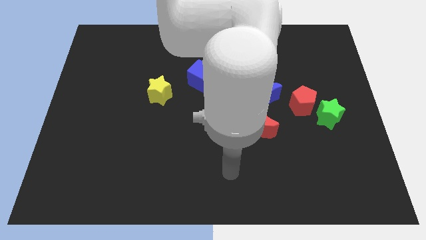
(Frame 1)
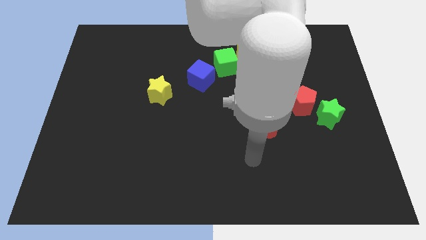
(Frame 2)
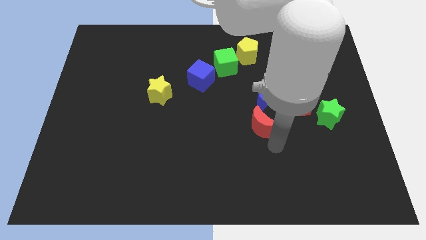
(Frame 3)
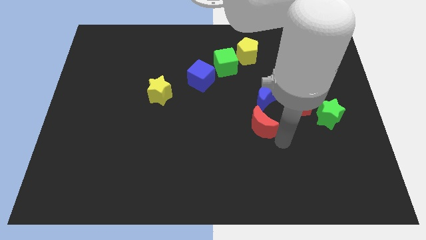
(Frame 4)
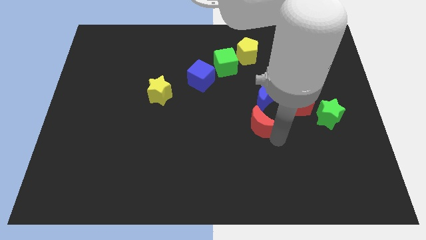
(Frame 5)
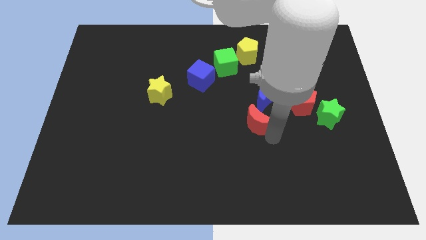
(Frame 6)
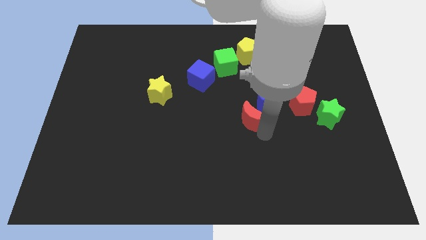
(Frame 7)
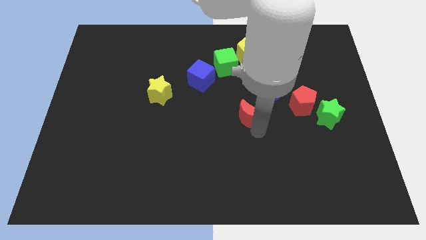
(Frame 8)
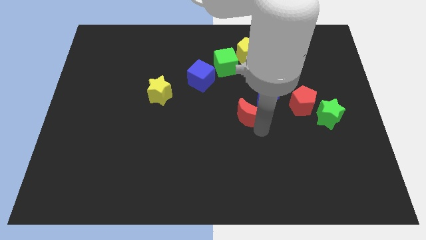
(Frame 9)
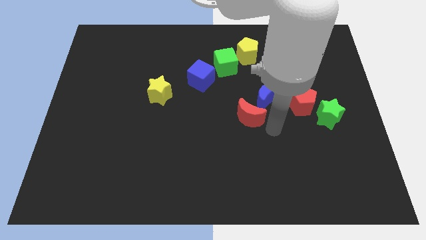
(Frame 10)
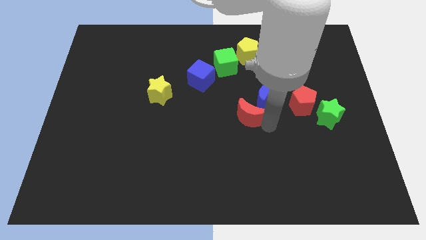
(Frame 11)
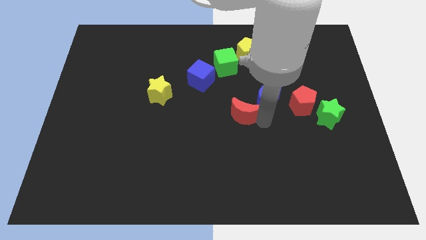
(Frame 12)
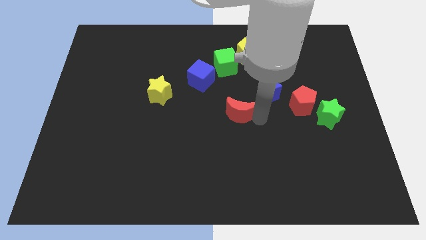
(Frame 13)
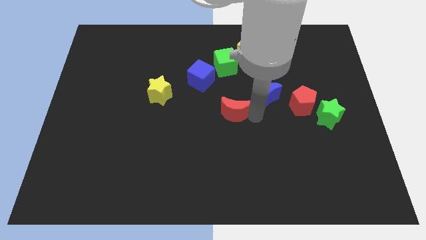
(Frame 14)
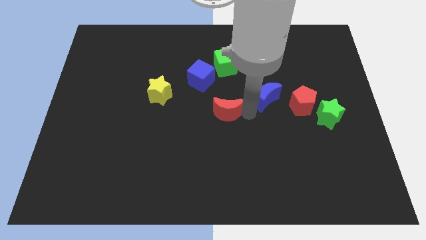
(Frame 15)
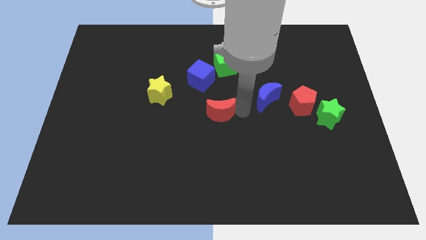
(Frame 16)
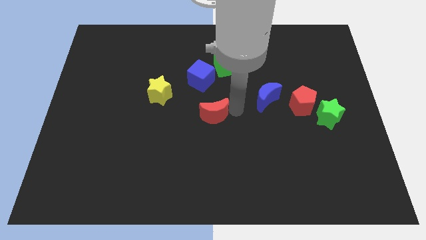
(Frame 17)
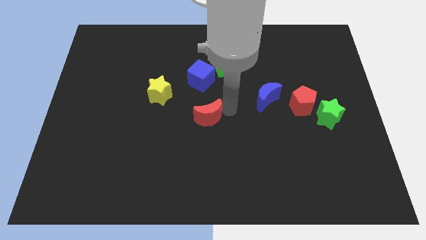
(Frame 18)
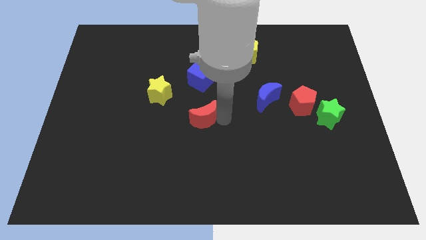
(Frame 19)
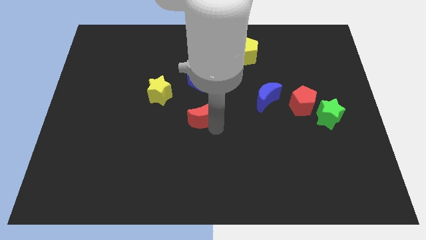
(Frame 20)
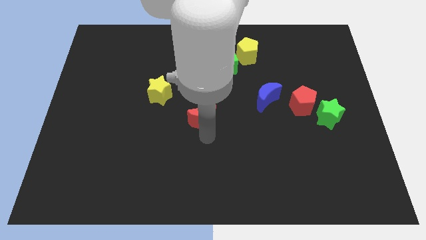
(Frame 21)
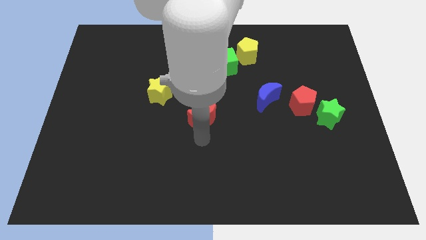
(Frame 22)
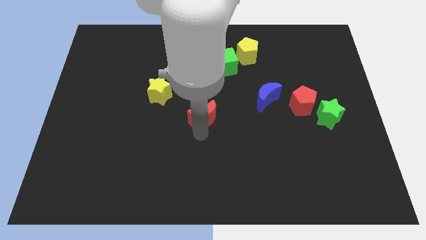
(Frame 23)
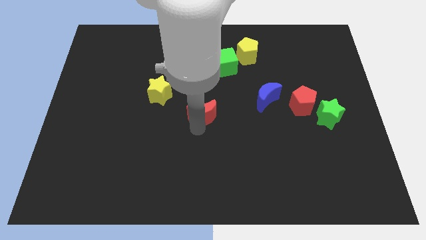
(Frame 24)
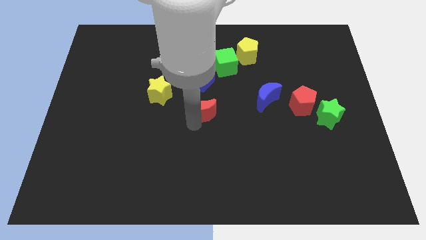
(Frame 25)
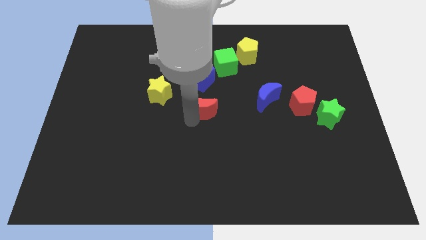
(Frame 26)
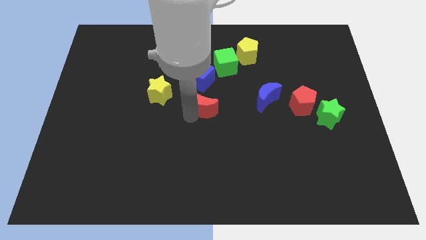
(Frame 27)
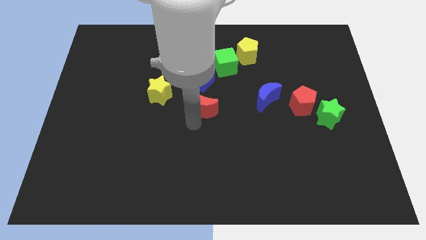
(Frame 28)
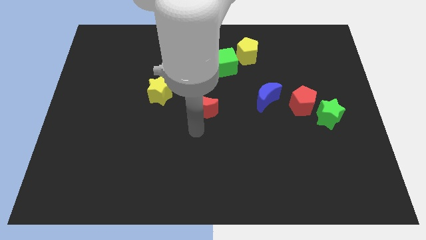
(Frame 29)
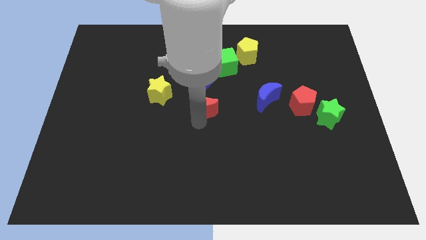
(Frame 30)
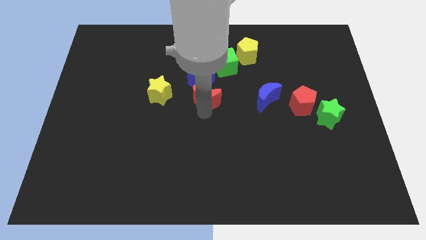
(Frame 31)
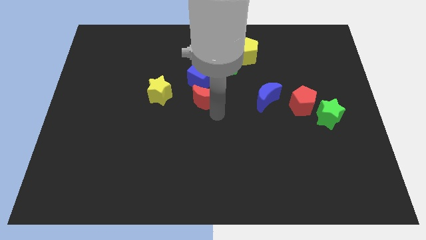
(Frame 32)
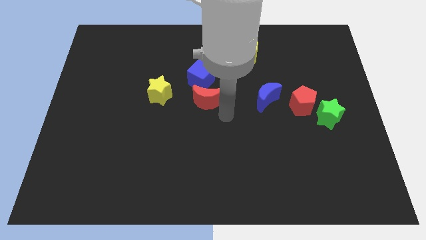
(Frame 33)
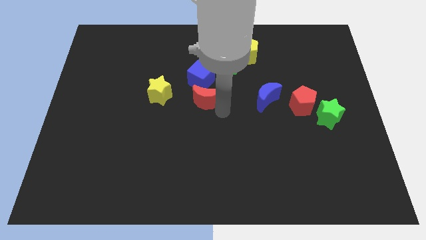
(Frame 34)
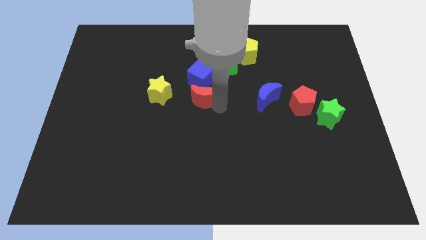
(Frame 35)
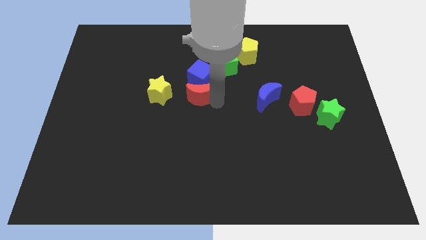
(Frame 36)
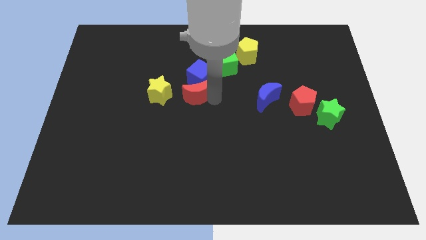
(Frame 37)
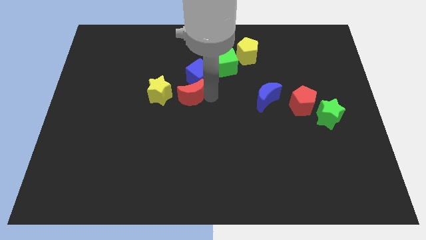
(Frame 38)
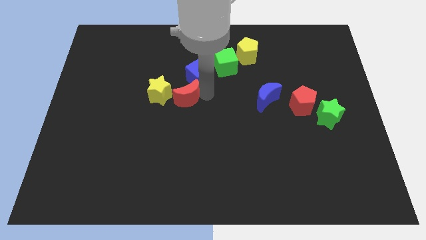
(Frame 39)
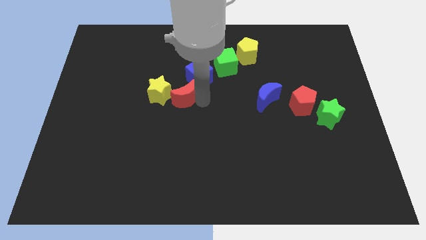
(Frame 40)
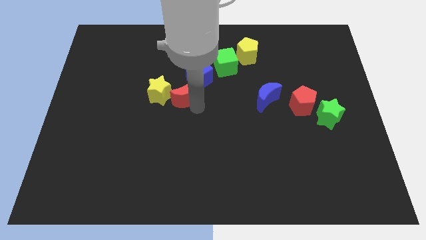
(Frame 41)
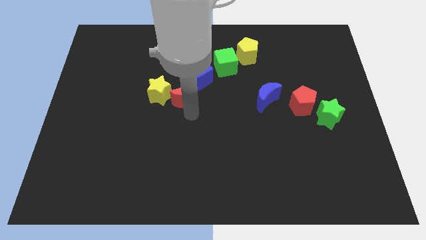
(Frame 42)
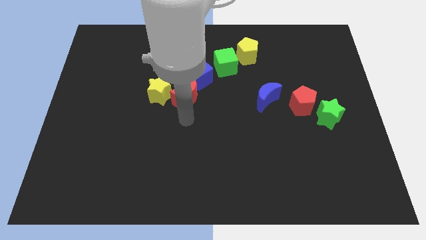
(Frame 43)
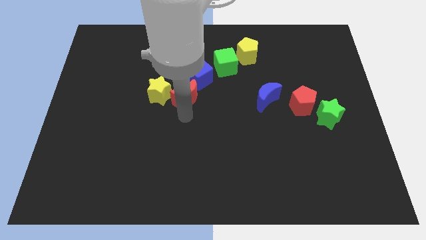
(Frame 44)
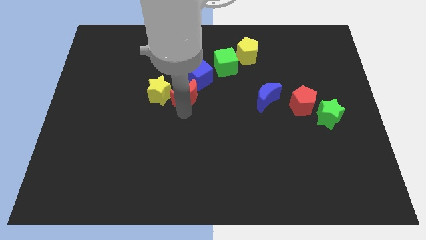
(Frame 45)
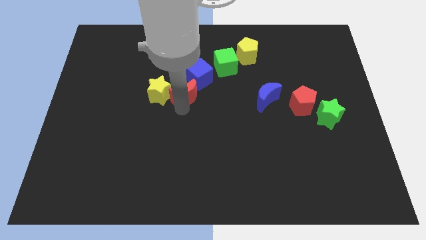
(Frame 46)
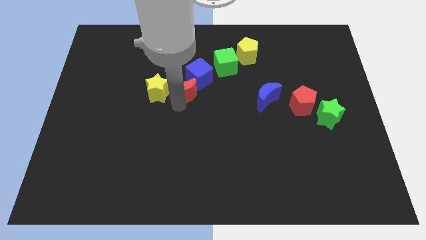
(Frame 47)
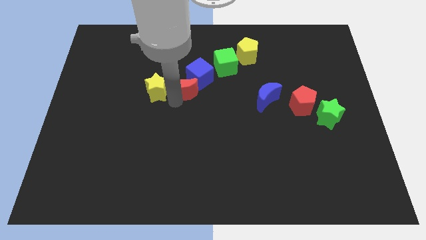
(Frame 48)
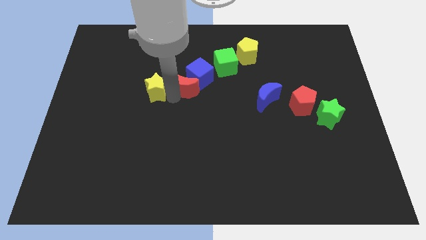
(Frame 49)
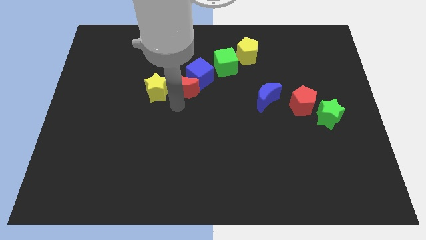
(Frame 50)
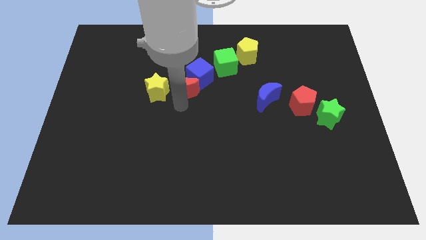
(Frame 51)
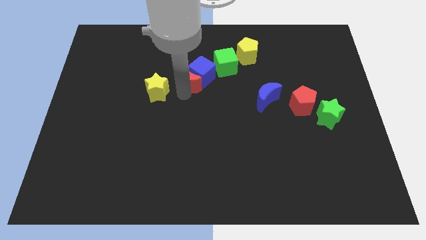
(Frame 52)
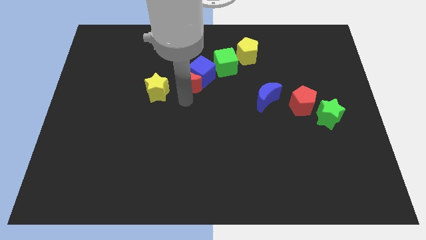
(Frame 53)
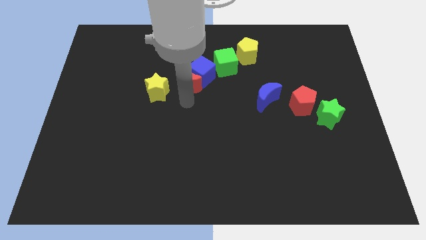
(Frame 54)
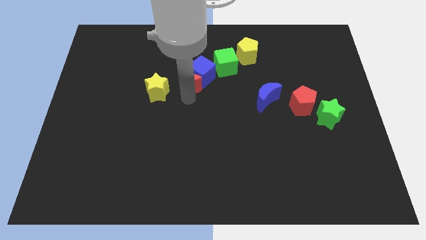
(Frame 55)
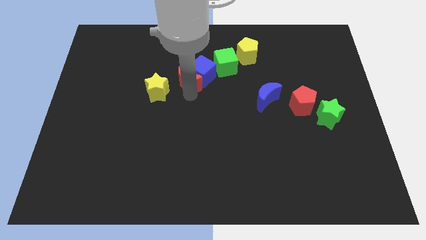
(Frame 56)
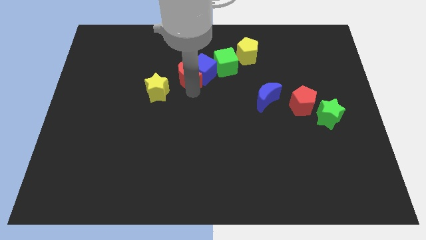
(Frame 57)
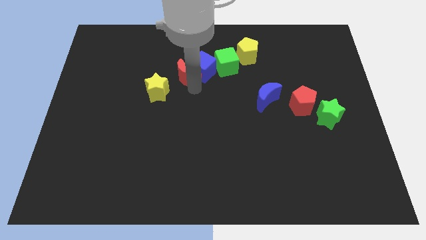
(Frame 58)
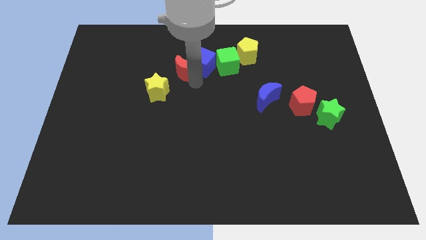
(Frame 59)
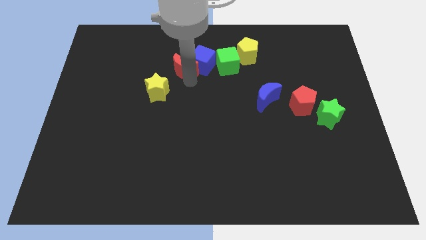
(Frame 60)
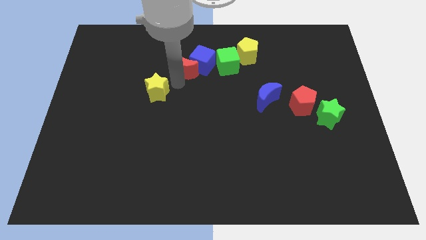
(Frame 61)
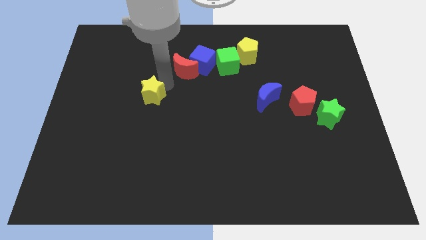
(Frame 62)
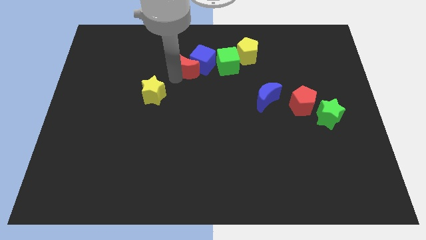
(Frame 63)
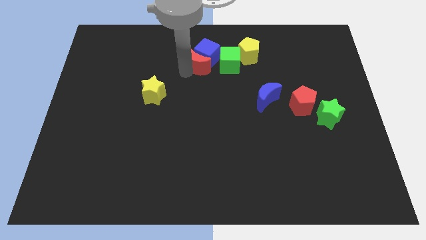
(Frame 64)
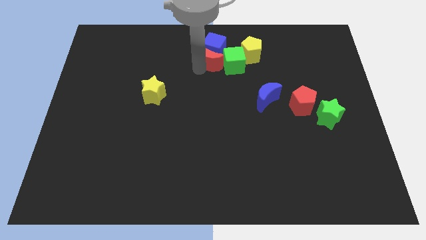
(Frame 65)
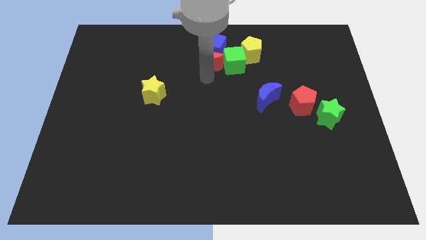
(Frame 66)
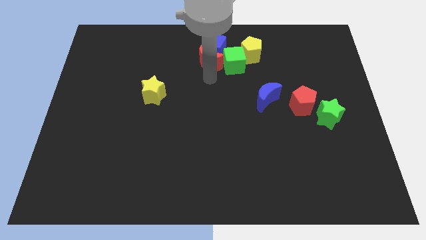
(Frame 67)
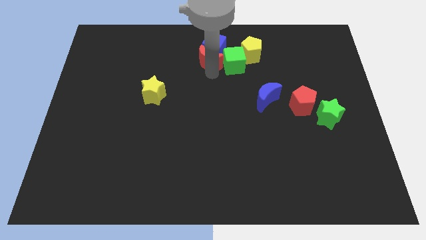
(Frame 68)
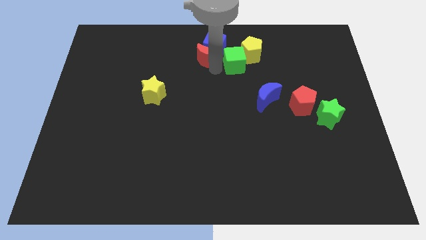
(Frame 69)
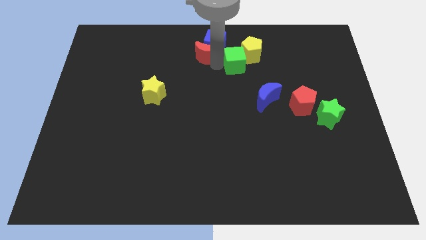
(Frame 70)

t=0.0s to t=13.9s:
push the red moon to the top
